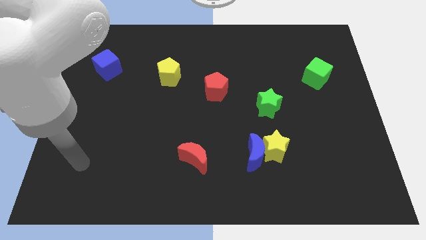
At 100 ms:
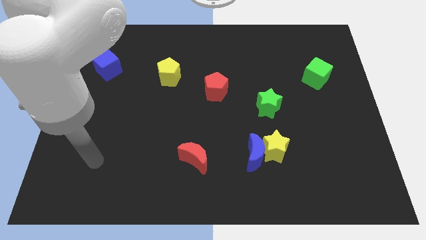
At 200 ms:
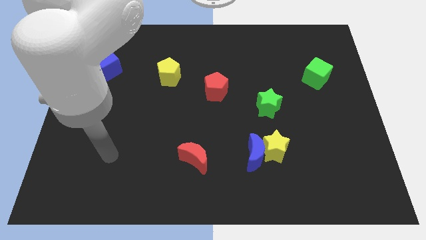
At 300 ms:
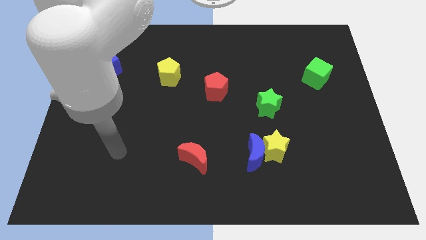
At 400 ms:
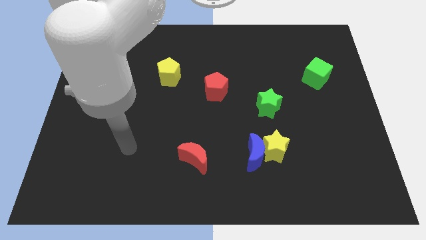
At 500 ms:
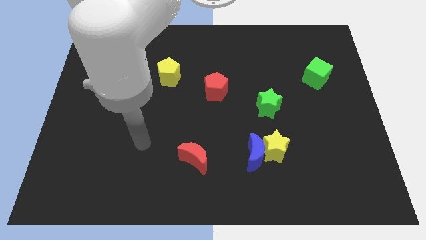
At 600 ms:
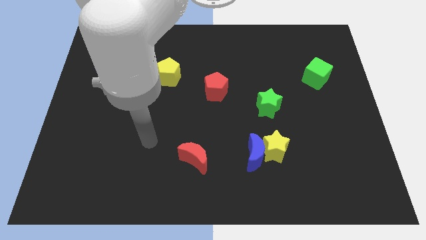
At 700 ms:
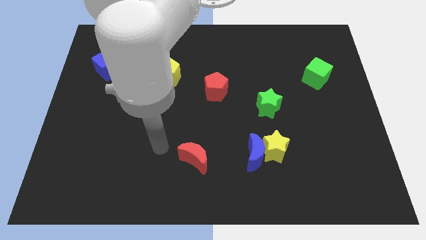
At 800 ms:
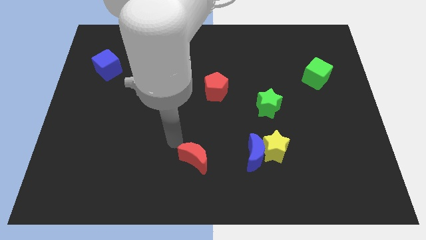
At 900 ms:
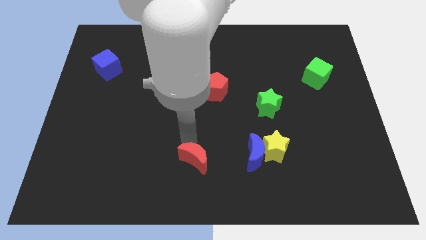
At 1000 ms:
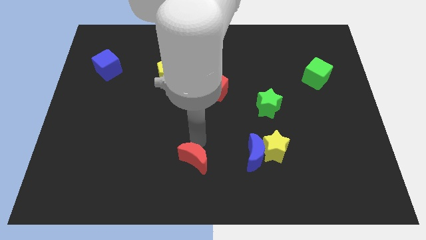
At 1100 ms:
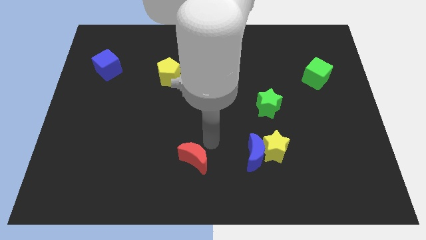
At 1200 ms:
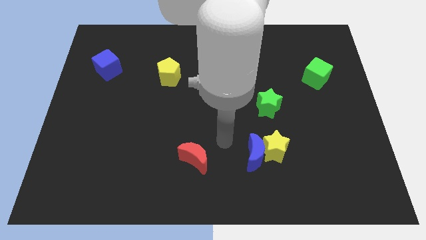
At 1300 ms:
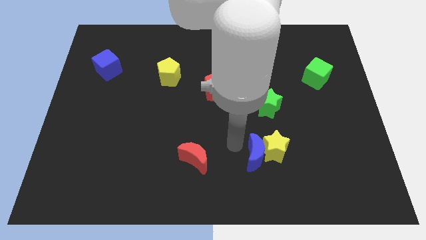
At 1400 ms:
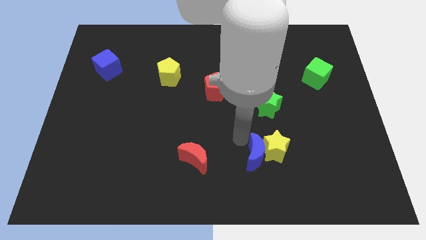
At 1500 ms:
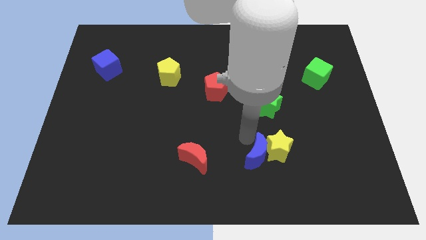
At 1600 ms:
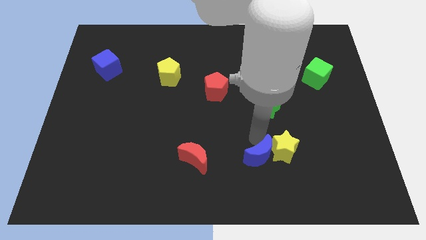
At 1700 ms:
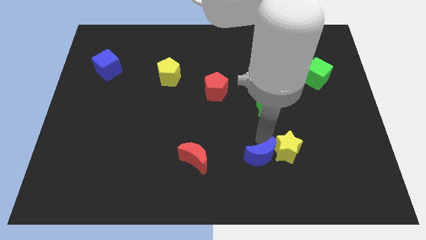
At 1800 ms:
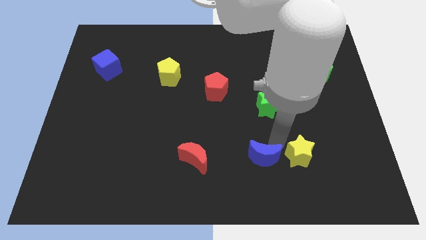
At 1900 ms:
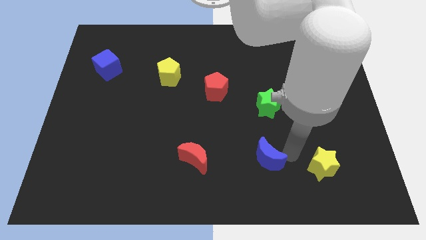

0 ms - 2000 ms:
separate the blue moon from the yellow star

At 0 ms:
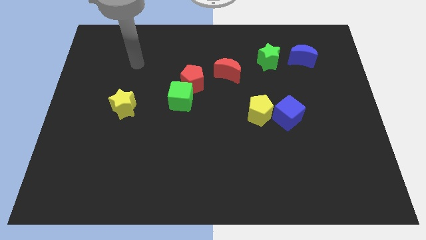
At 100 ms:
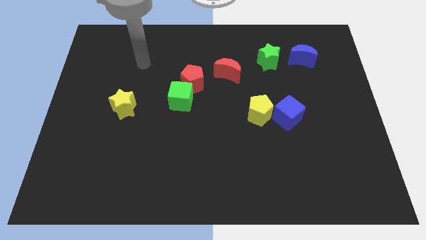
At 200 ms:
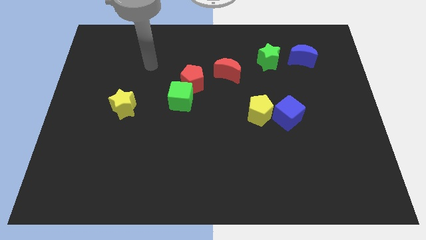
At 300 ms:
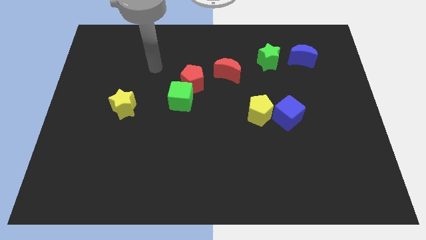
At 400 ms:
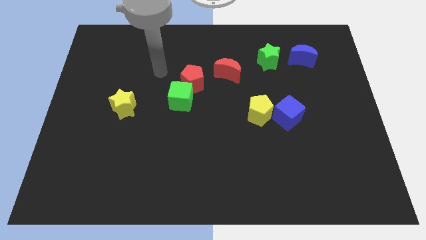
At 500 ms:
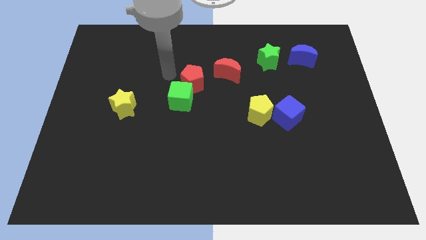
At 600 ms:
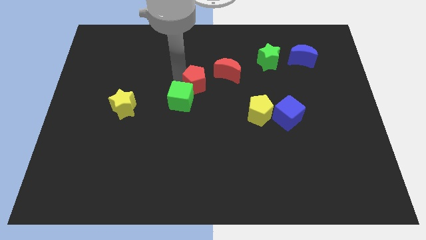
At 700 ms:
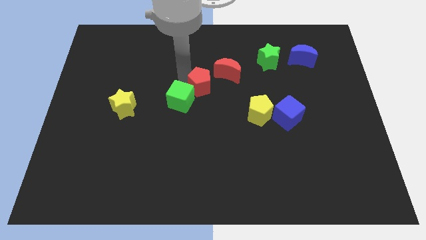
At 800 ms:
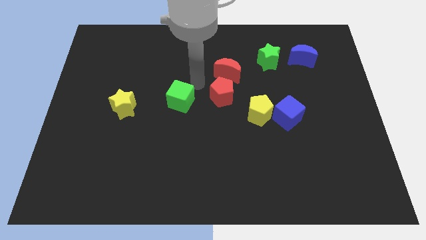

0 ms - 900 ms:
separate the green cube from the red pentagon

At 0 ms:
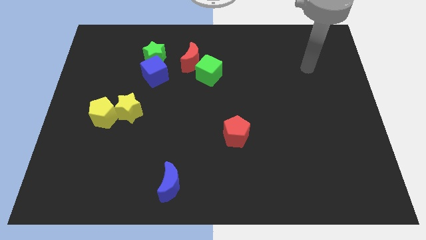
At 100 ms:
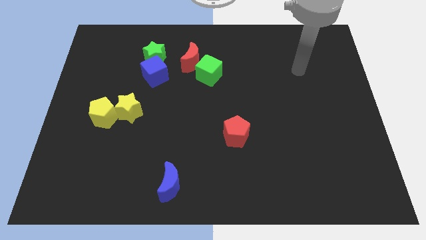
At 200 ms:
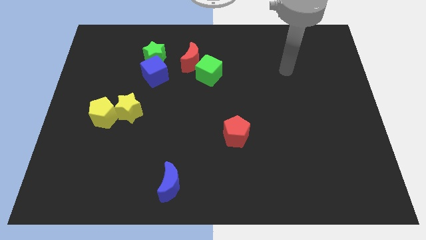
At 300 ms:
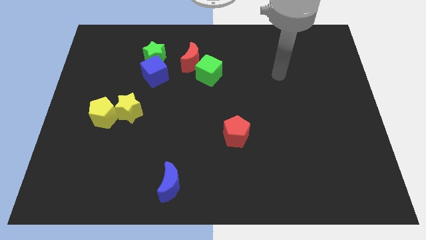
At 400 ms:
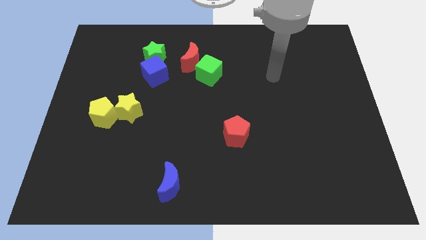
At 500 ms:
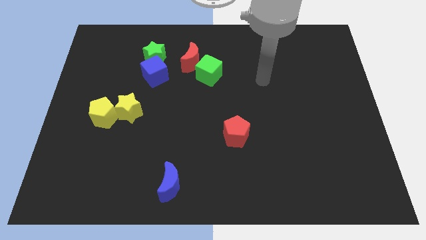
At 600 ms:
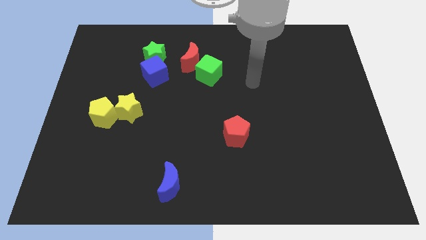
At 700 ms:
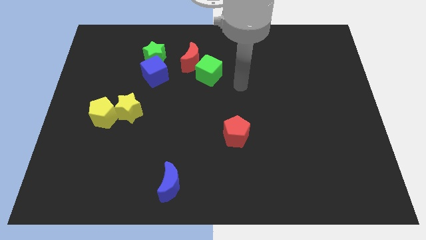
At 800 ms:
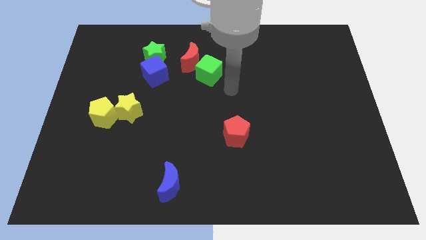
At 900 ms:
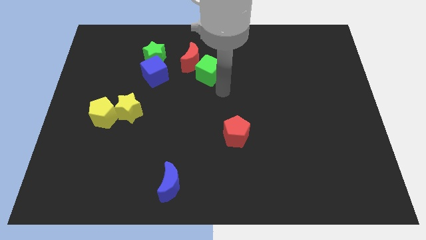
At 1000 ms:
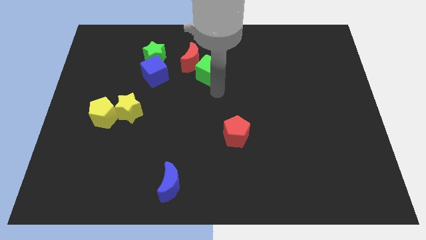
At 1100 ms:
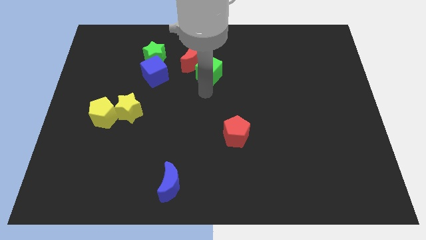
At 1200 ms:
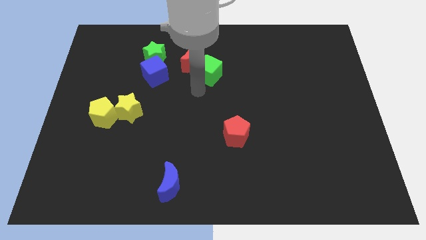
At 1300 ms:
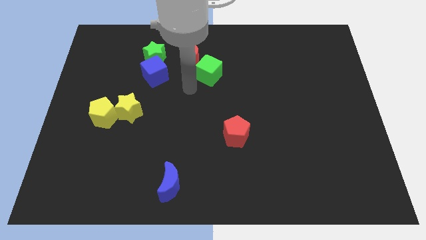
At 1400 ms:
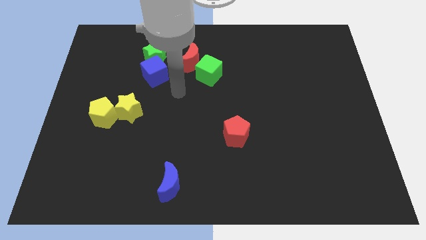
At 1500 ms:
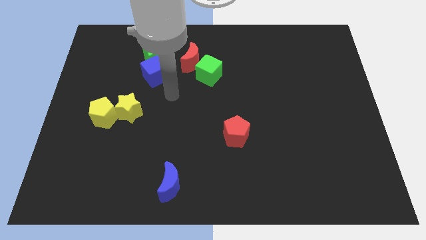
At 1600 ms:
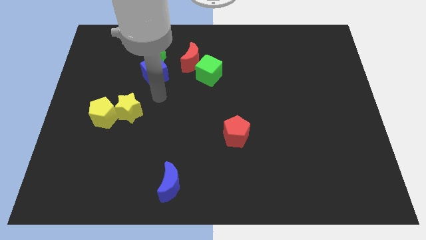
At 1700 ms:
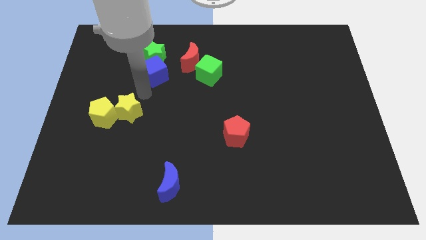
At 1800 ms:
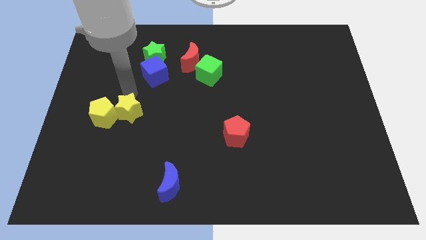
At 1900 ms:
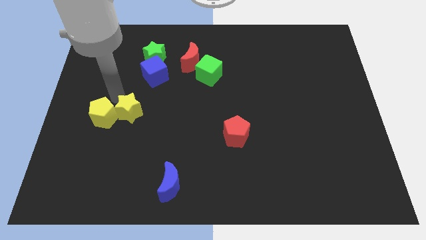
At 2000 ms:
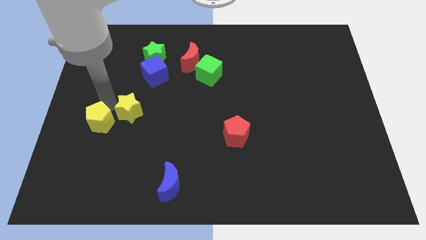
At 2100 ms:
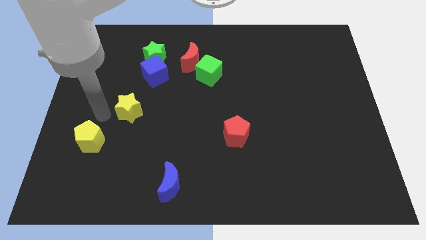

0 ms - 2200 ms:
pull the yellow star apart from the yellow pentagon

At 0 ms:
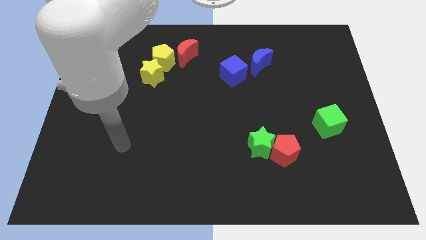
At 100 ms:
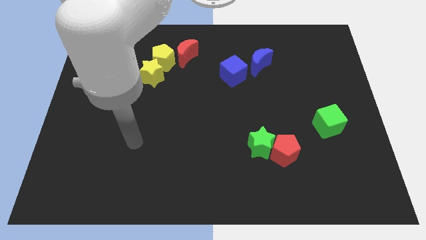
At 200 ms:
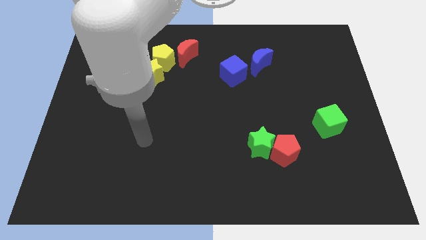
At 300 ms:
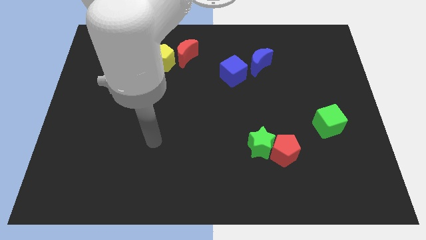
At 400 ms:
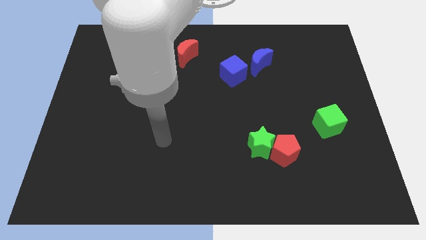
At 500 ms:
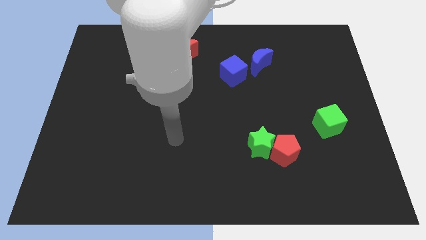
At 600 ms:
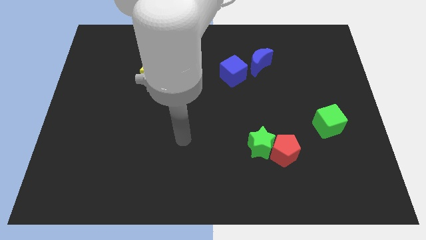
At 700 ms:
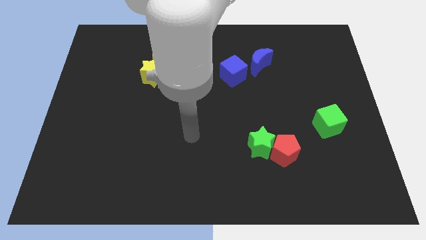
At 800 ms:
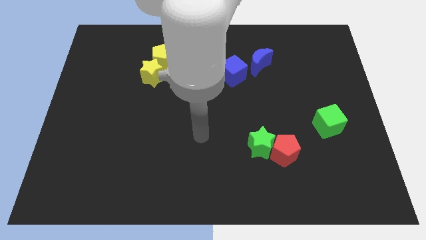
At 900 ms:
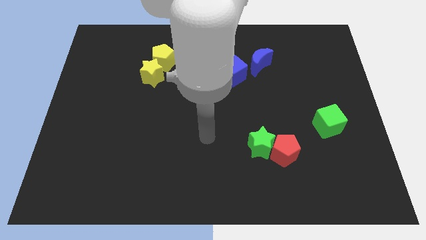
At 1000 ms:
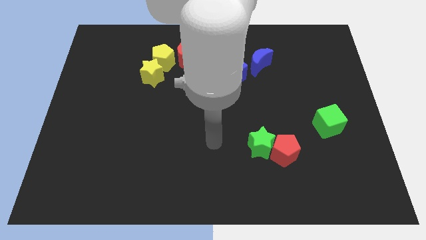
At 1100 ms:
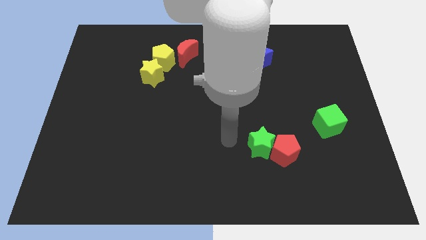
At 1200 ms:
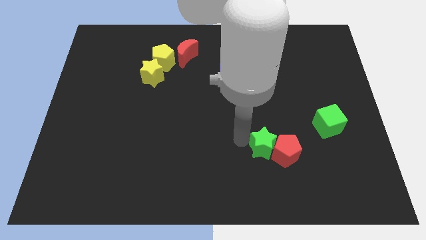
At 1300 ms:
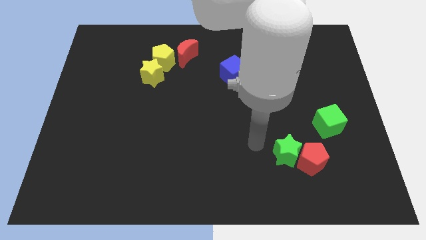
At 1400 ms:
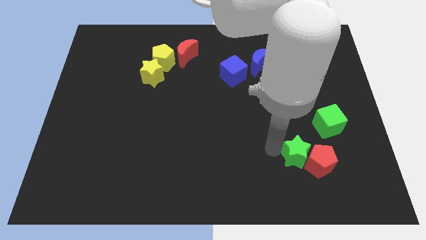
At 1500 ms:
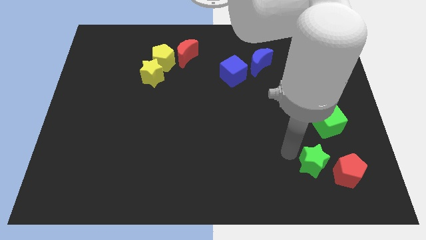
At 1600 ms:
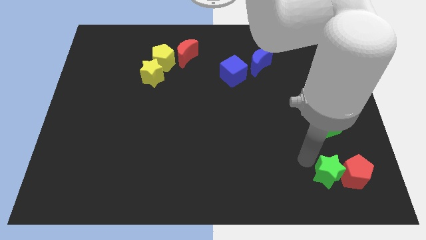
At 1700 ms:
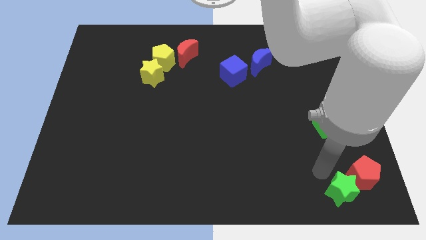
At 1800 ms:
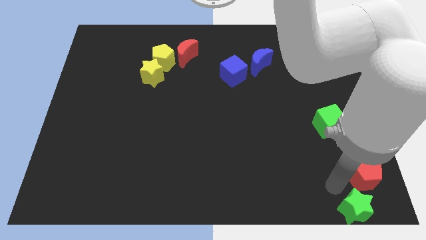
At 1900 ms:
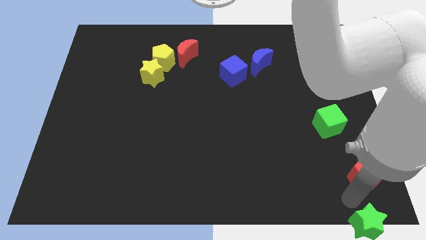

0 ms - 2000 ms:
separate the red pentagon from the green star

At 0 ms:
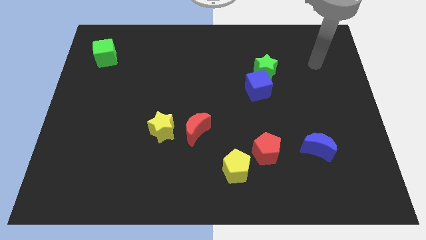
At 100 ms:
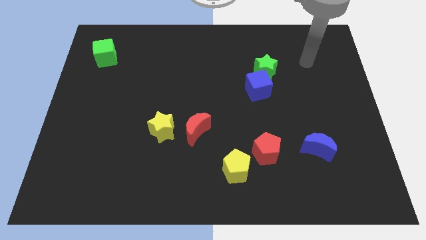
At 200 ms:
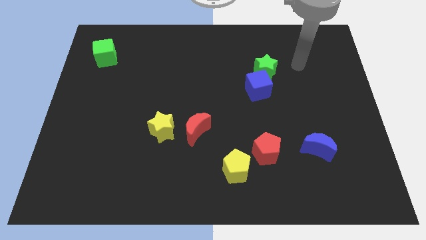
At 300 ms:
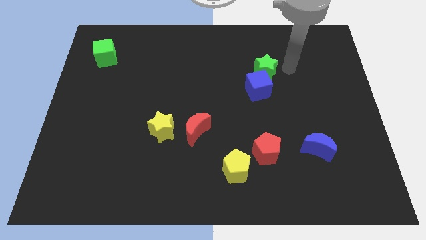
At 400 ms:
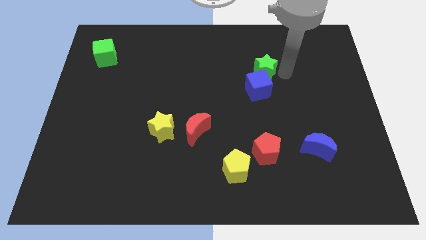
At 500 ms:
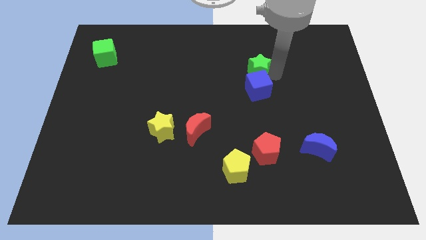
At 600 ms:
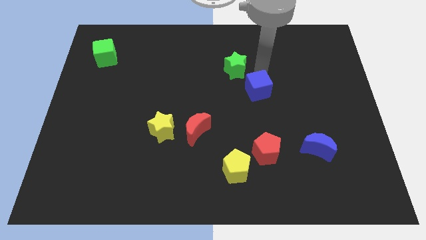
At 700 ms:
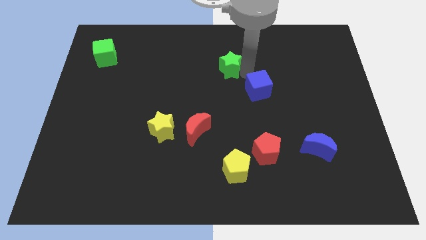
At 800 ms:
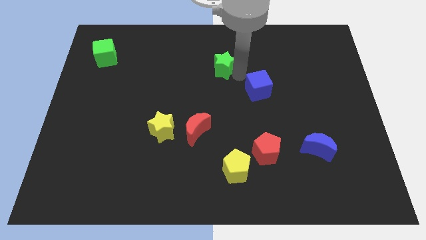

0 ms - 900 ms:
move the blue cube away from the green star

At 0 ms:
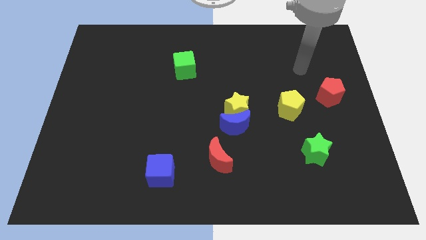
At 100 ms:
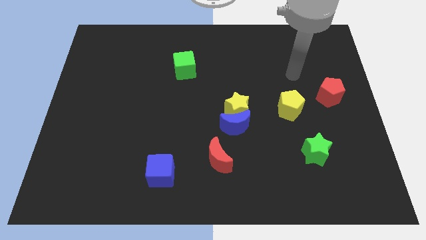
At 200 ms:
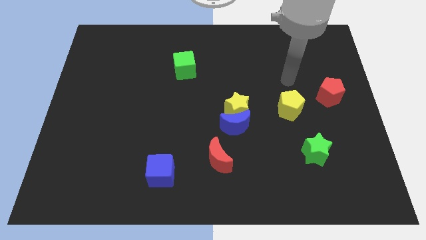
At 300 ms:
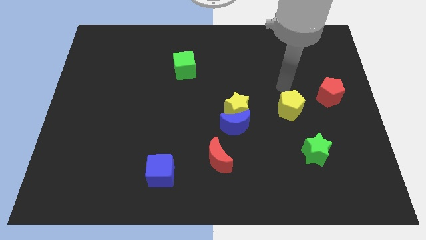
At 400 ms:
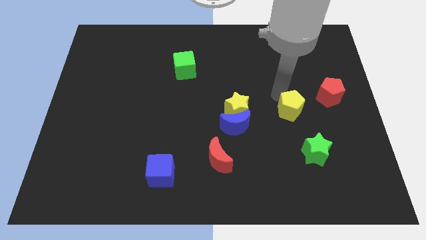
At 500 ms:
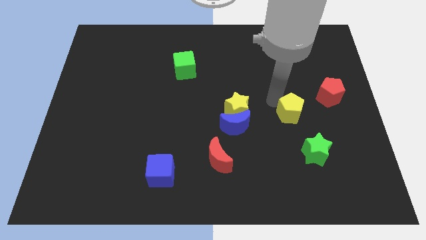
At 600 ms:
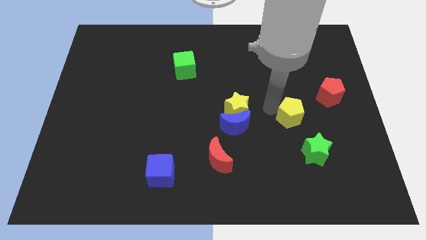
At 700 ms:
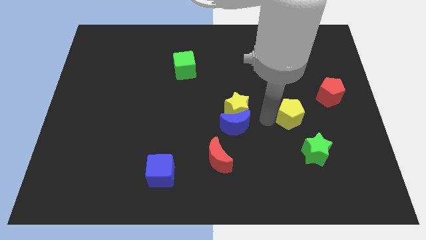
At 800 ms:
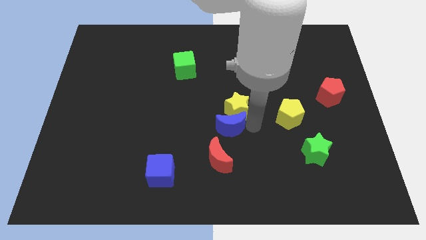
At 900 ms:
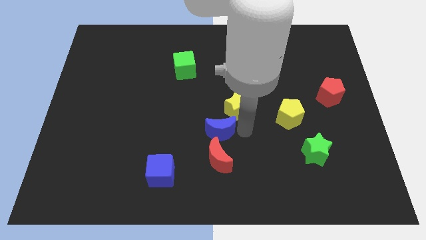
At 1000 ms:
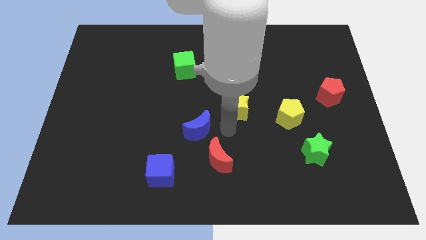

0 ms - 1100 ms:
pull the yellow star apart from the blue moon

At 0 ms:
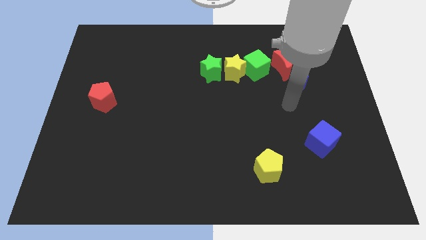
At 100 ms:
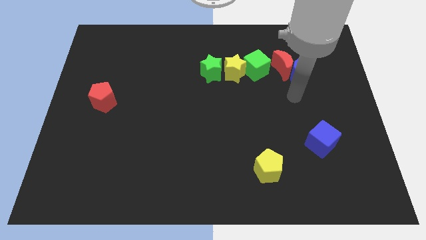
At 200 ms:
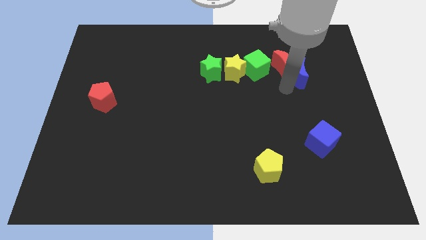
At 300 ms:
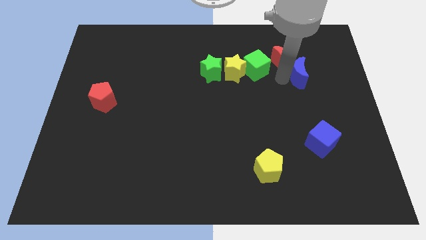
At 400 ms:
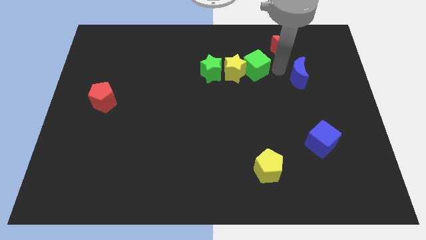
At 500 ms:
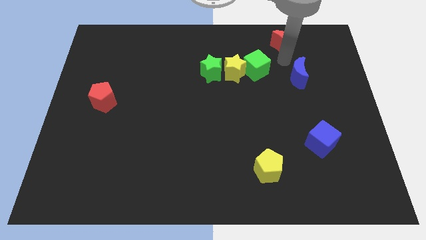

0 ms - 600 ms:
move the blue moon away from the red moon
